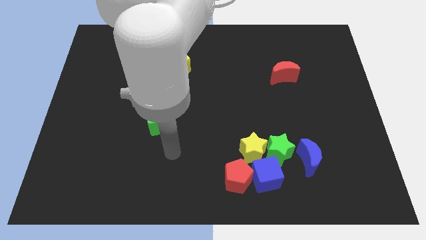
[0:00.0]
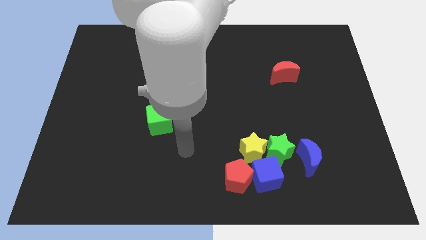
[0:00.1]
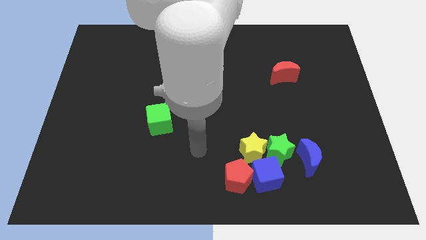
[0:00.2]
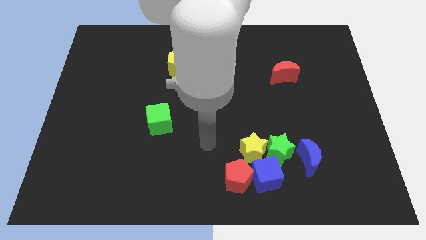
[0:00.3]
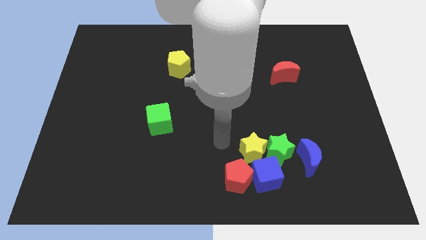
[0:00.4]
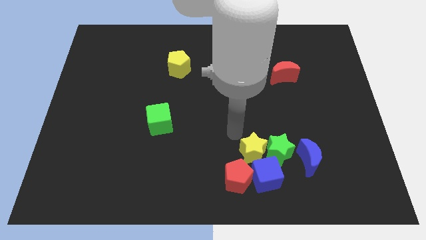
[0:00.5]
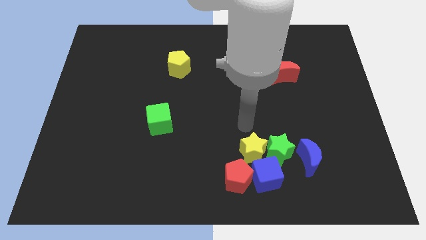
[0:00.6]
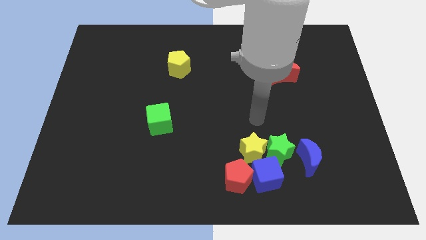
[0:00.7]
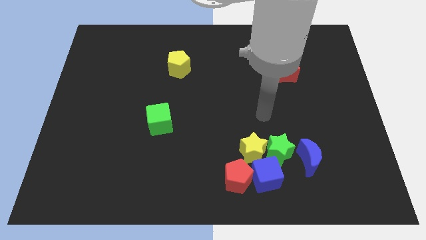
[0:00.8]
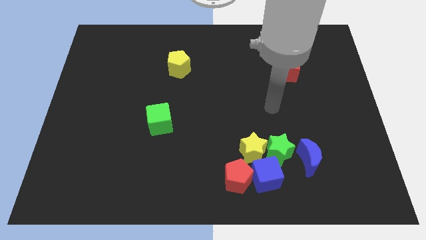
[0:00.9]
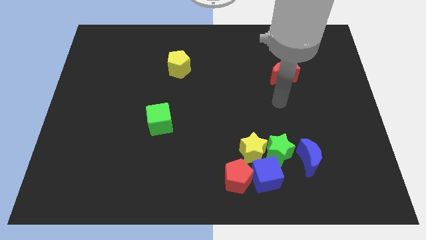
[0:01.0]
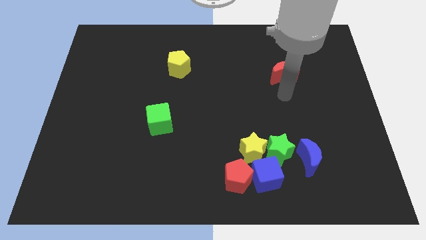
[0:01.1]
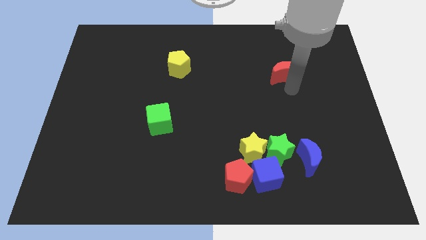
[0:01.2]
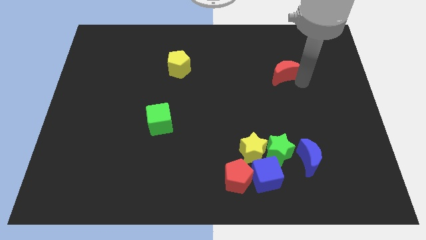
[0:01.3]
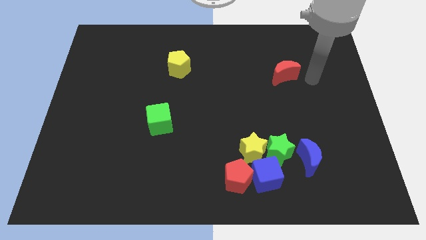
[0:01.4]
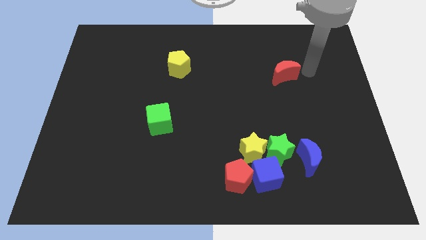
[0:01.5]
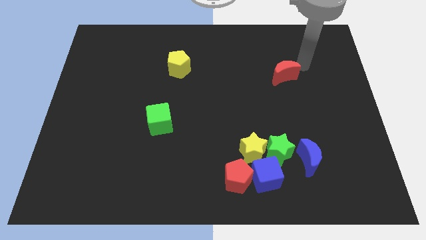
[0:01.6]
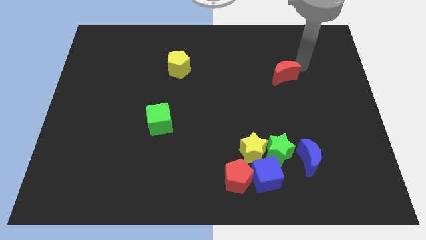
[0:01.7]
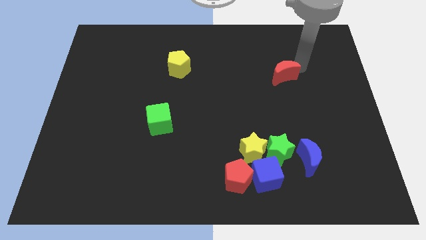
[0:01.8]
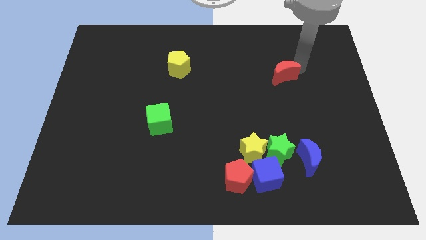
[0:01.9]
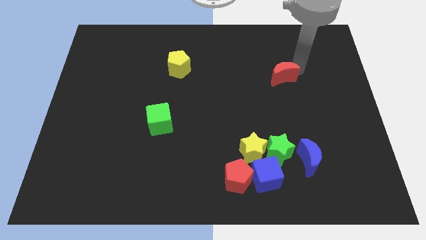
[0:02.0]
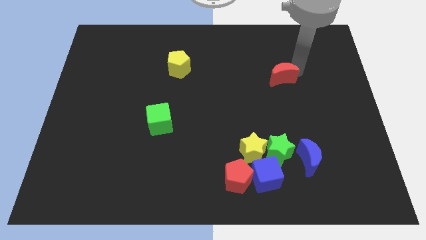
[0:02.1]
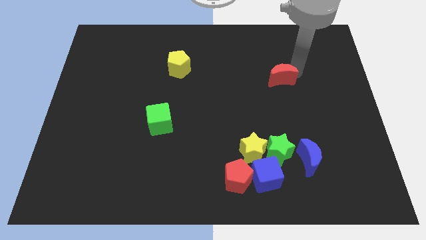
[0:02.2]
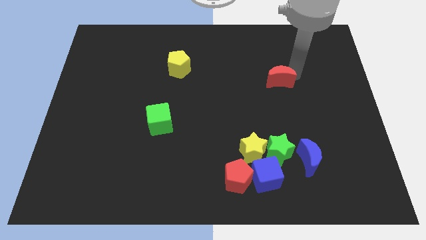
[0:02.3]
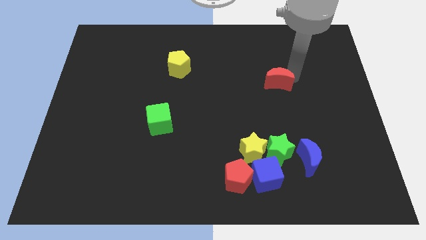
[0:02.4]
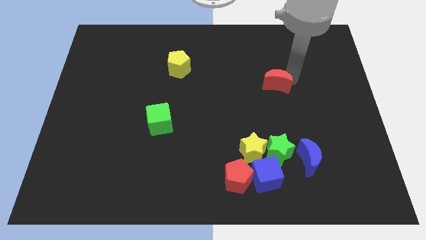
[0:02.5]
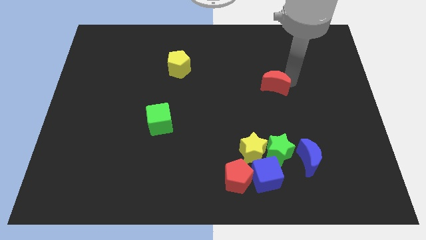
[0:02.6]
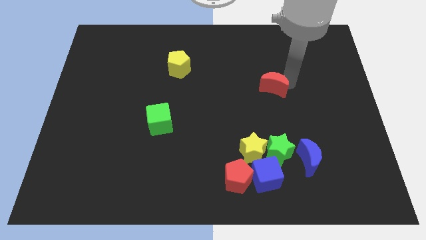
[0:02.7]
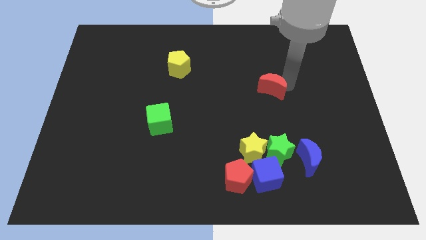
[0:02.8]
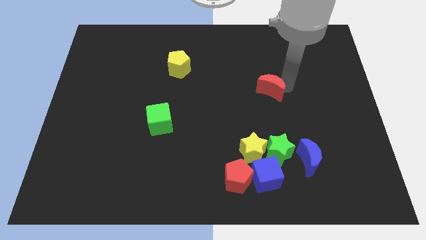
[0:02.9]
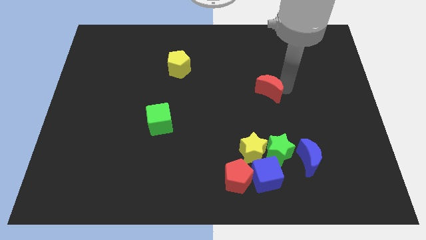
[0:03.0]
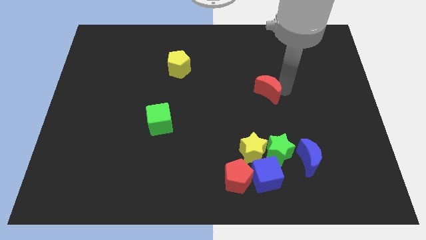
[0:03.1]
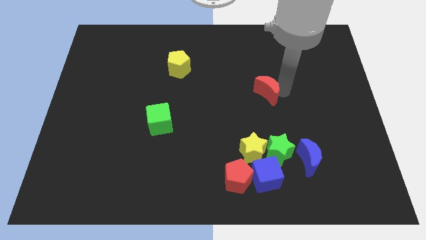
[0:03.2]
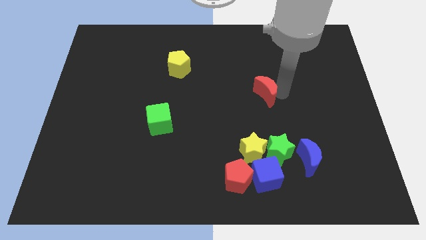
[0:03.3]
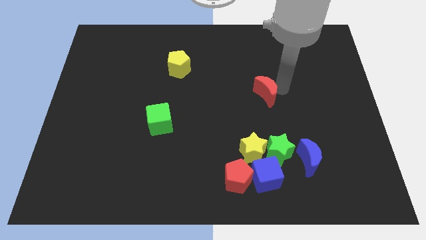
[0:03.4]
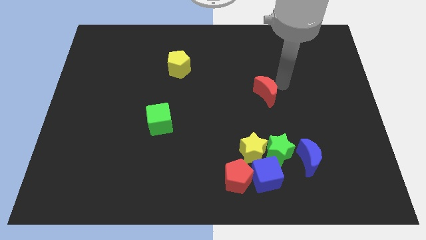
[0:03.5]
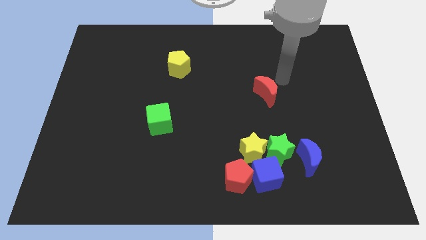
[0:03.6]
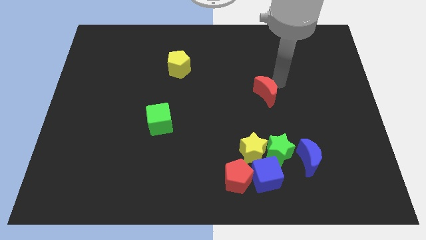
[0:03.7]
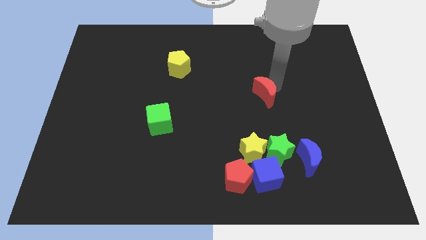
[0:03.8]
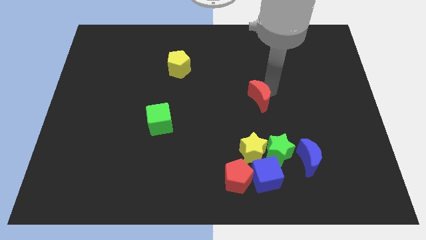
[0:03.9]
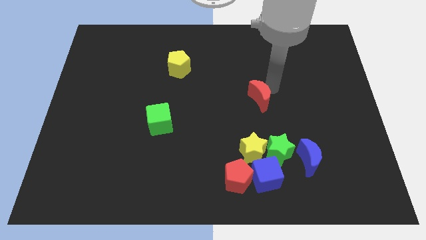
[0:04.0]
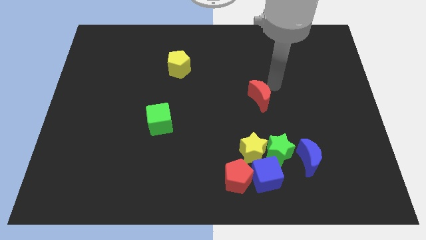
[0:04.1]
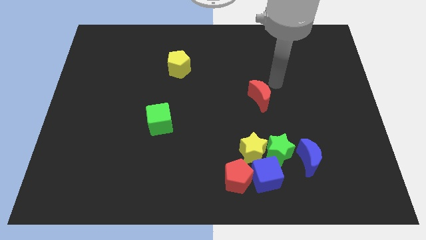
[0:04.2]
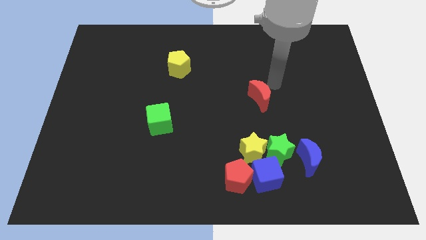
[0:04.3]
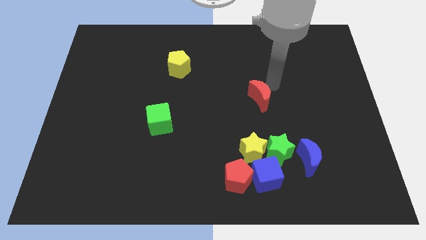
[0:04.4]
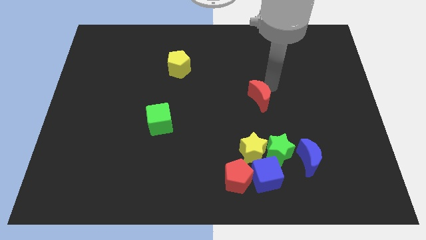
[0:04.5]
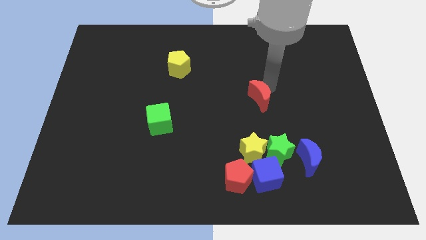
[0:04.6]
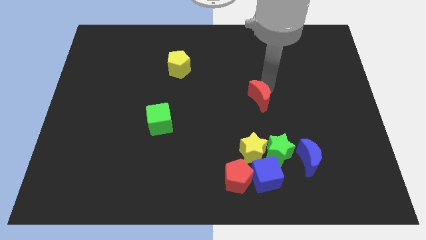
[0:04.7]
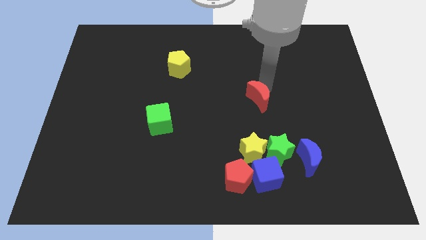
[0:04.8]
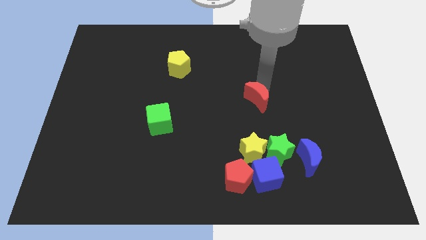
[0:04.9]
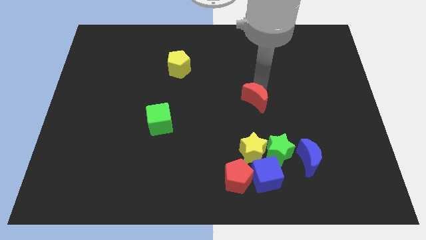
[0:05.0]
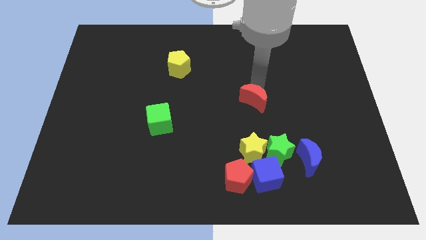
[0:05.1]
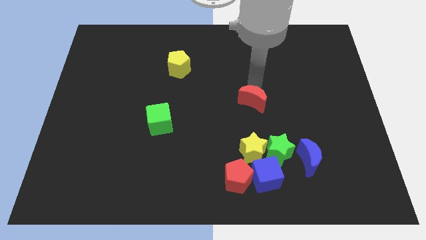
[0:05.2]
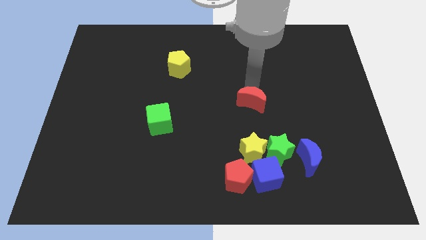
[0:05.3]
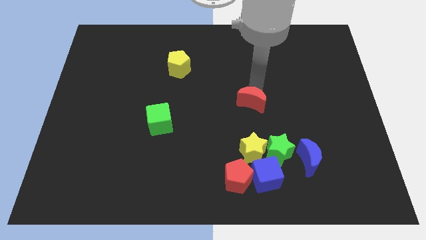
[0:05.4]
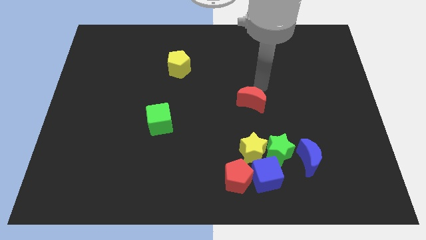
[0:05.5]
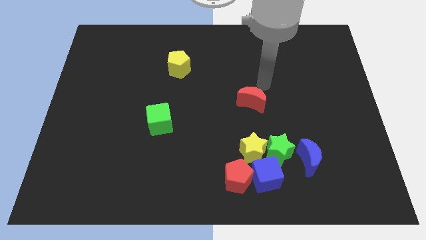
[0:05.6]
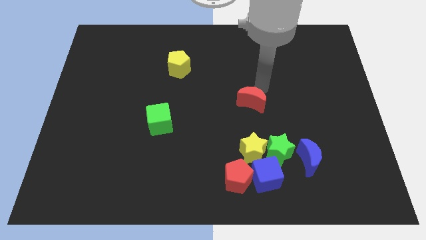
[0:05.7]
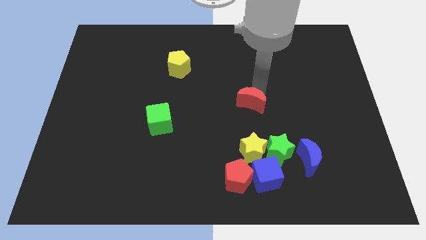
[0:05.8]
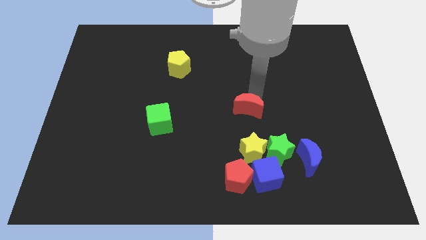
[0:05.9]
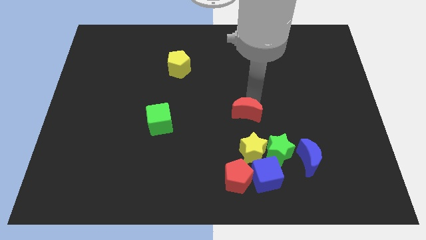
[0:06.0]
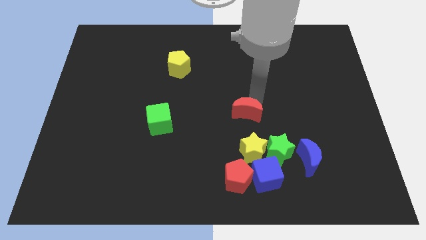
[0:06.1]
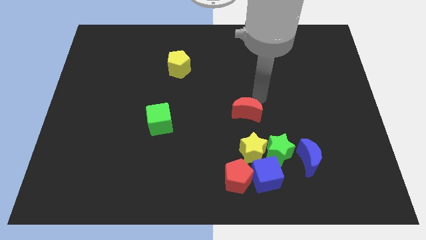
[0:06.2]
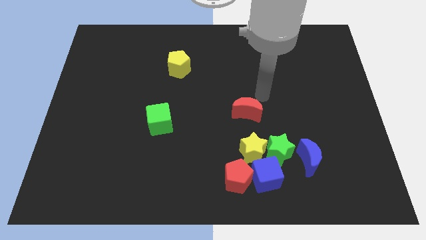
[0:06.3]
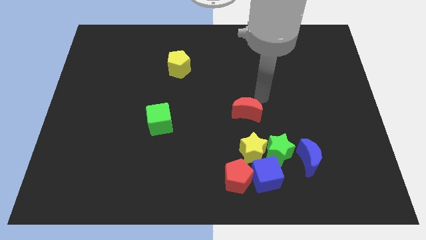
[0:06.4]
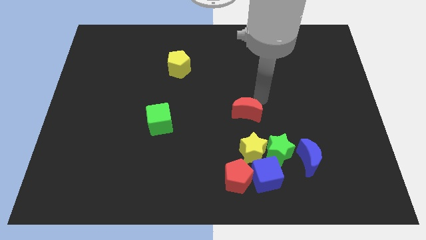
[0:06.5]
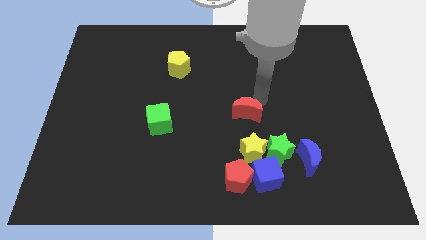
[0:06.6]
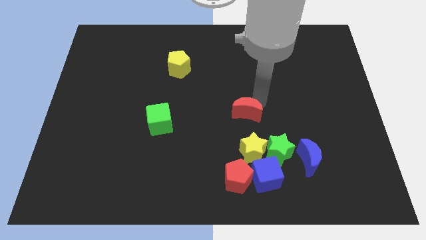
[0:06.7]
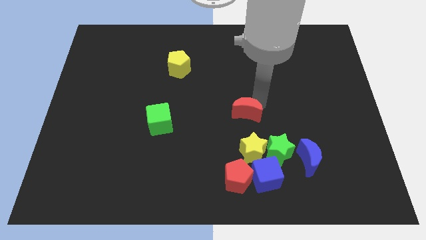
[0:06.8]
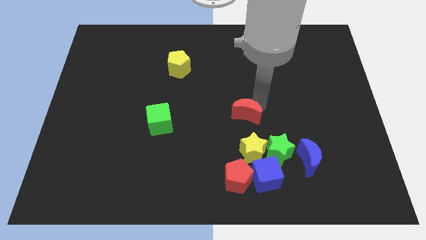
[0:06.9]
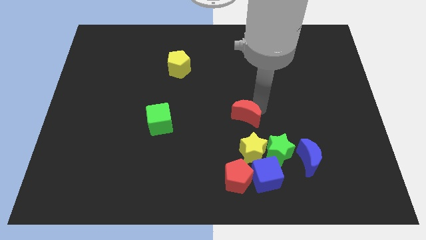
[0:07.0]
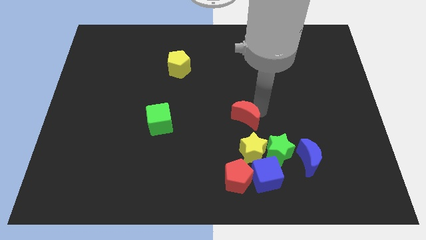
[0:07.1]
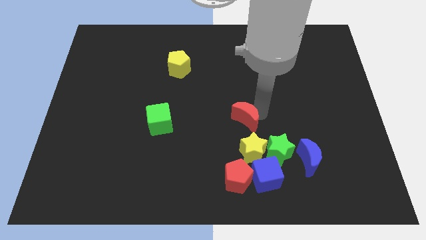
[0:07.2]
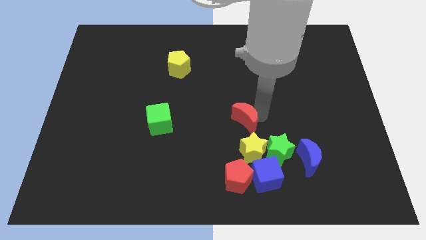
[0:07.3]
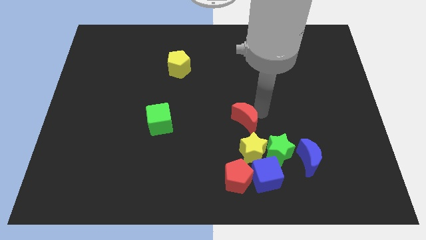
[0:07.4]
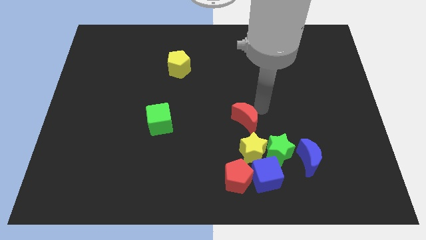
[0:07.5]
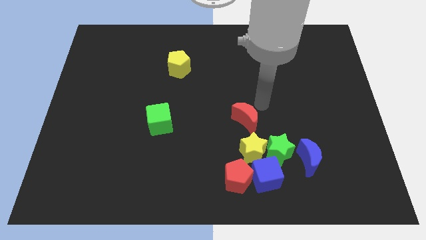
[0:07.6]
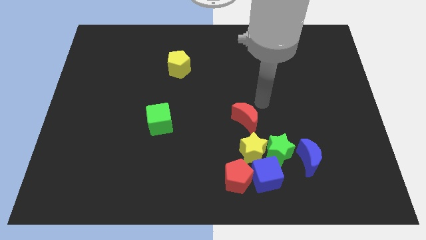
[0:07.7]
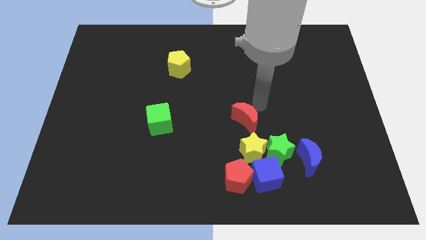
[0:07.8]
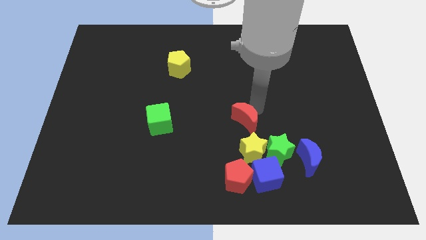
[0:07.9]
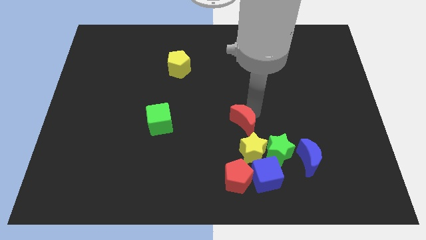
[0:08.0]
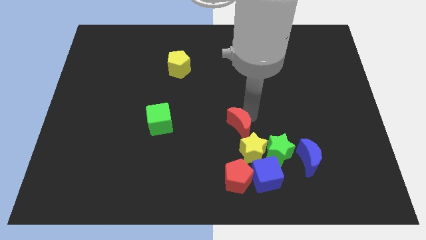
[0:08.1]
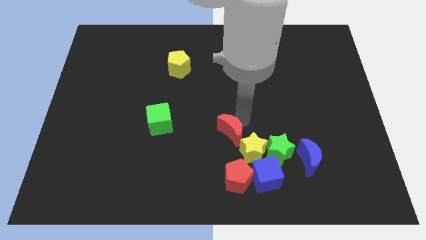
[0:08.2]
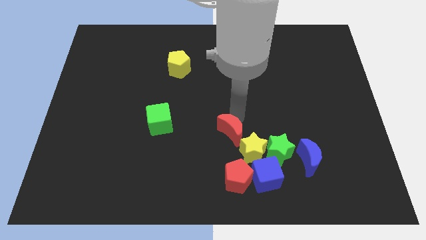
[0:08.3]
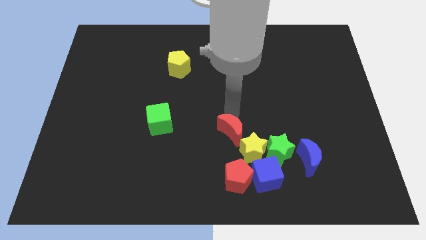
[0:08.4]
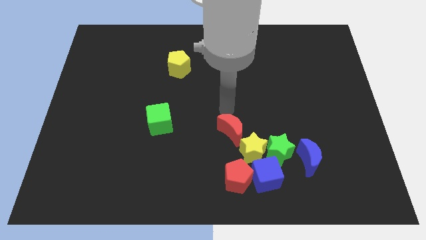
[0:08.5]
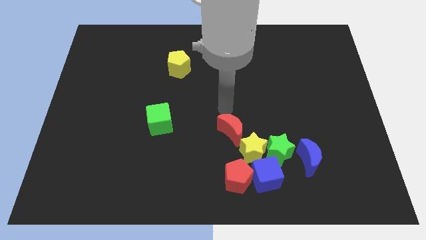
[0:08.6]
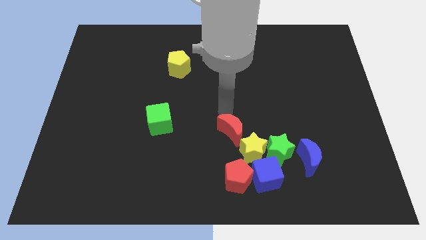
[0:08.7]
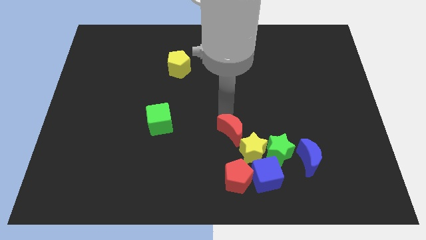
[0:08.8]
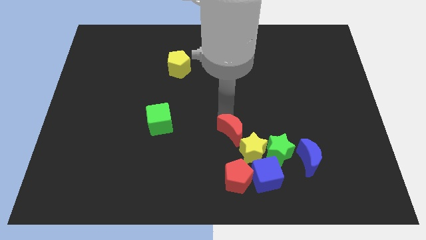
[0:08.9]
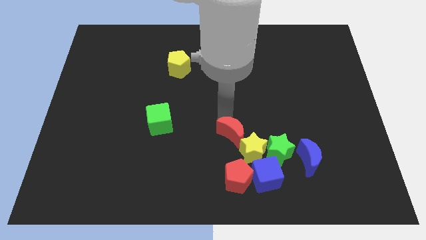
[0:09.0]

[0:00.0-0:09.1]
put the red moon to the top left of the blue cube
